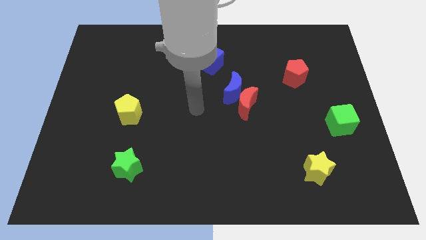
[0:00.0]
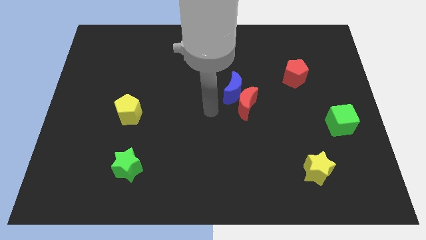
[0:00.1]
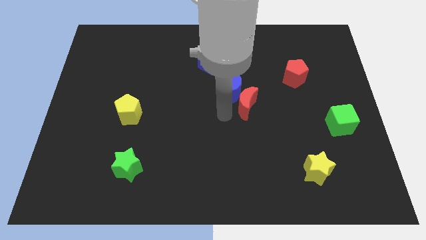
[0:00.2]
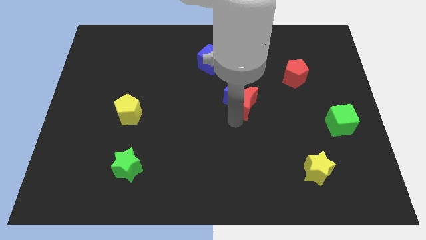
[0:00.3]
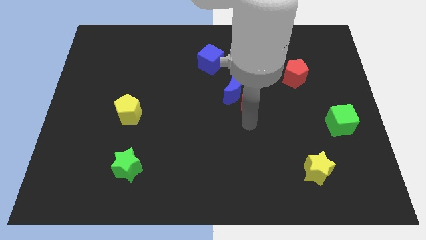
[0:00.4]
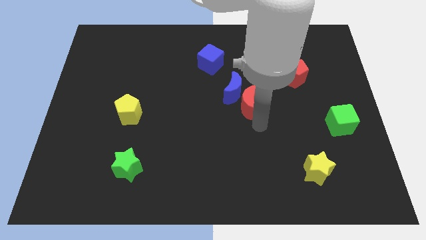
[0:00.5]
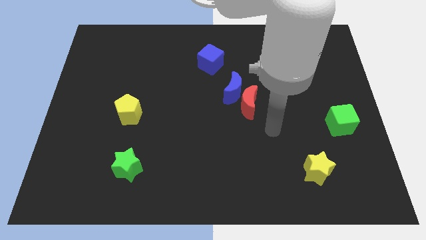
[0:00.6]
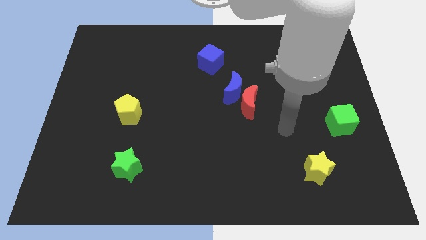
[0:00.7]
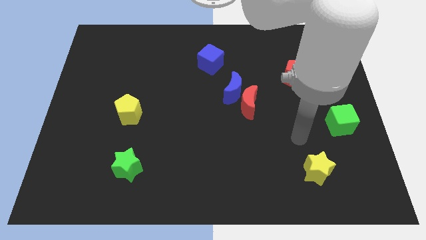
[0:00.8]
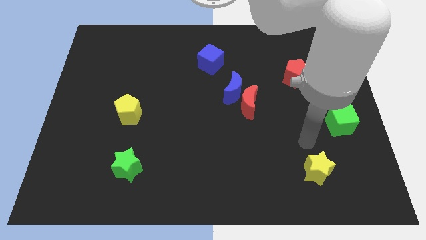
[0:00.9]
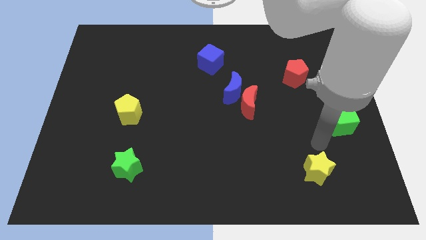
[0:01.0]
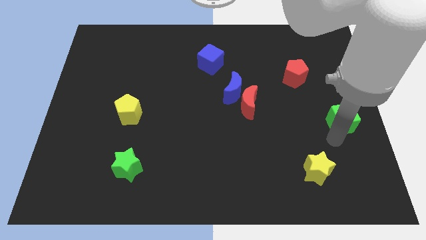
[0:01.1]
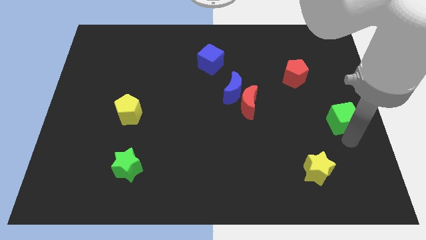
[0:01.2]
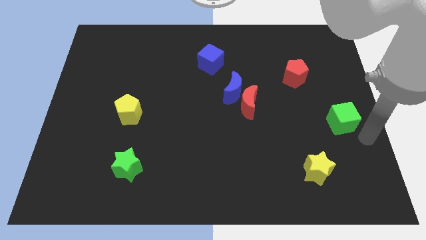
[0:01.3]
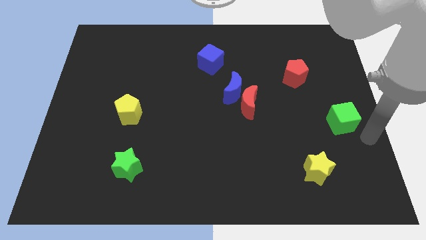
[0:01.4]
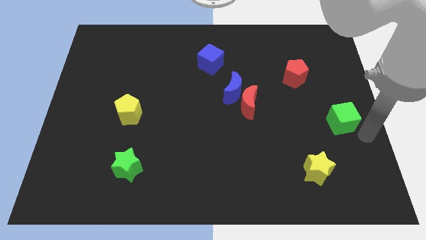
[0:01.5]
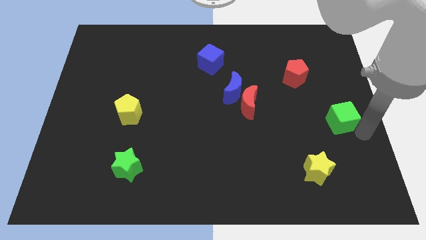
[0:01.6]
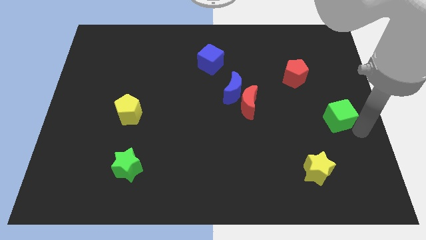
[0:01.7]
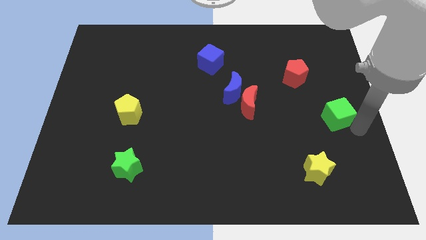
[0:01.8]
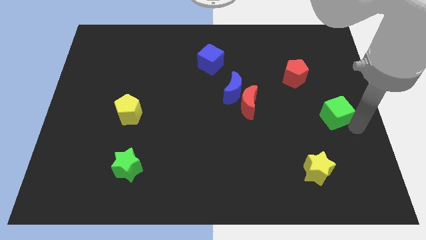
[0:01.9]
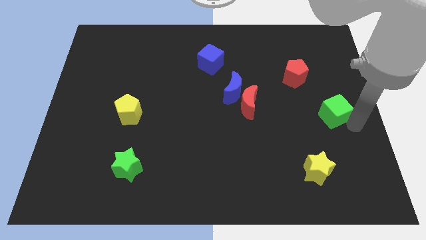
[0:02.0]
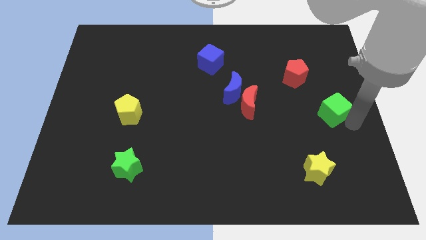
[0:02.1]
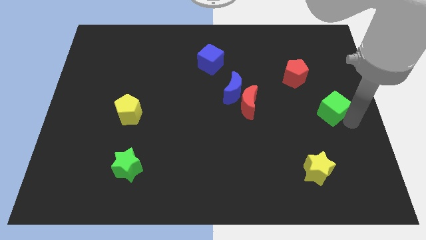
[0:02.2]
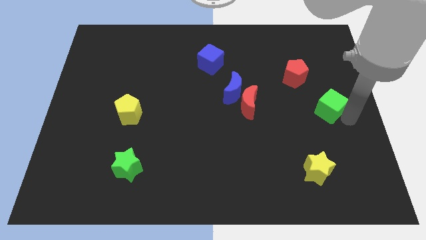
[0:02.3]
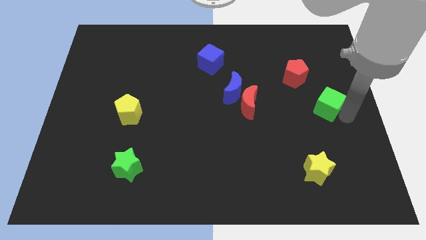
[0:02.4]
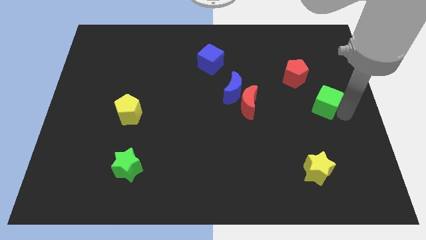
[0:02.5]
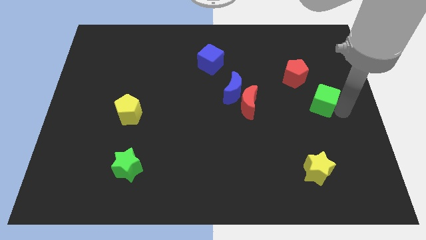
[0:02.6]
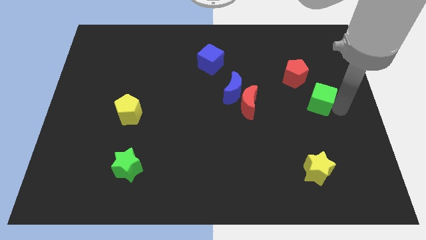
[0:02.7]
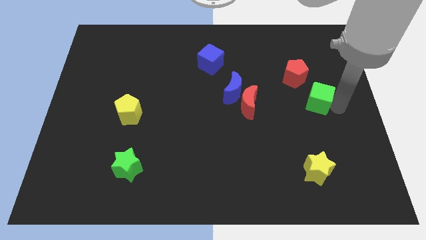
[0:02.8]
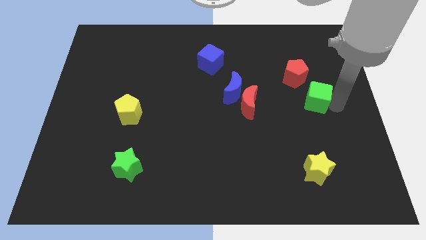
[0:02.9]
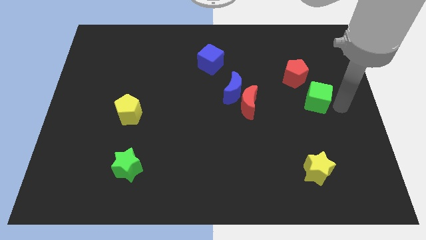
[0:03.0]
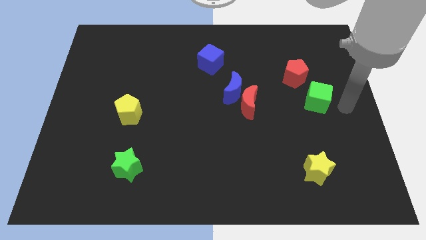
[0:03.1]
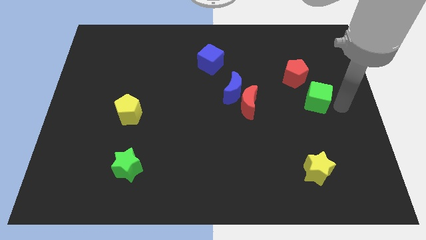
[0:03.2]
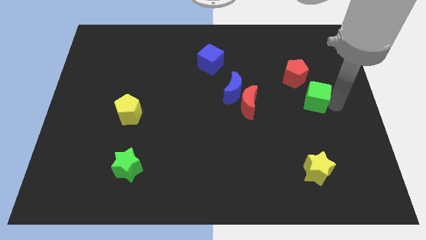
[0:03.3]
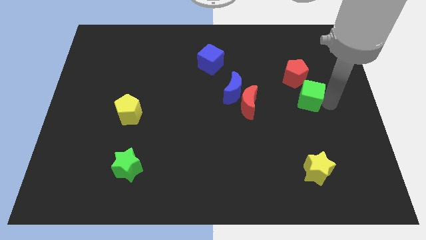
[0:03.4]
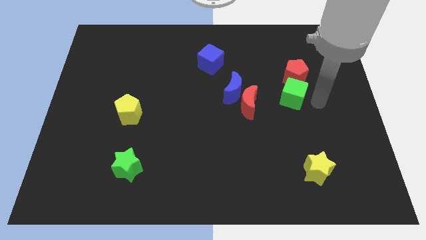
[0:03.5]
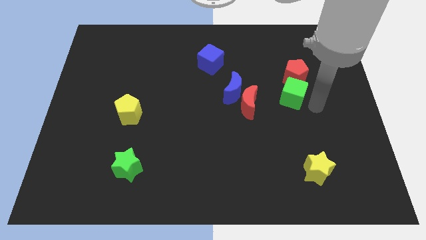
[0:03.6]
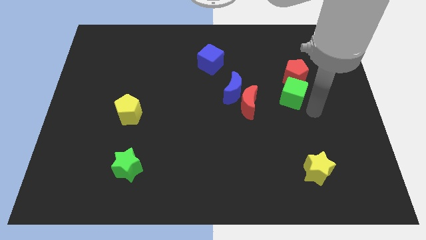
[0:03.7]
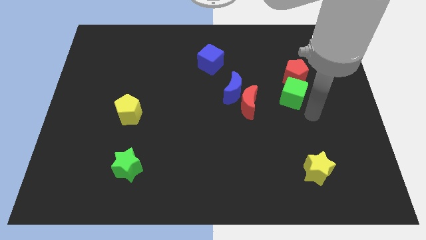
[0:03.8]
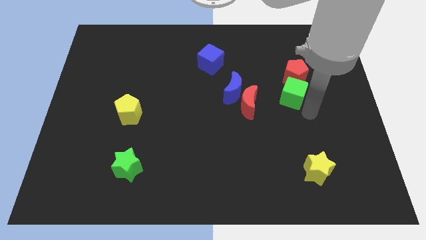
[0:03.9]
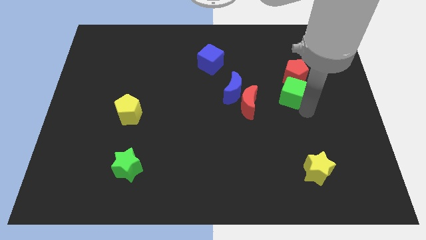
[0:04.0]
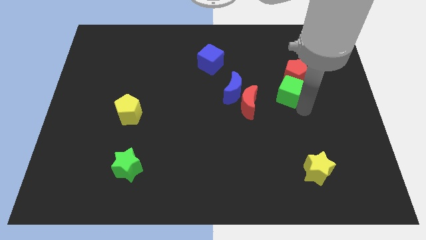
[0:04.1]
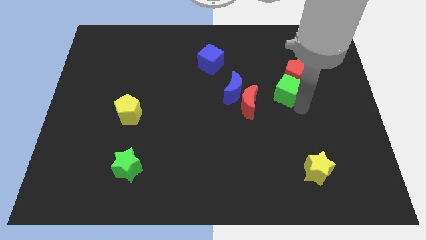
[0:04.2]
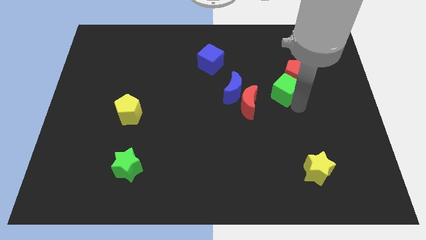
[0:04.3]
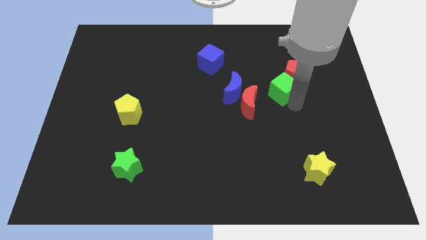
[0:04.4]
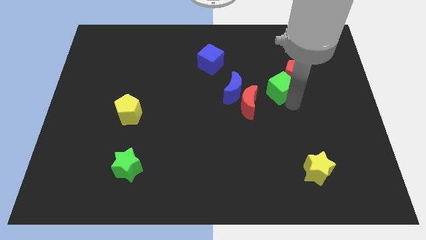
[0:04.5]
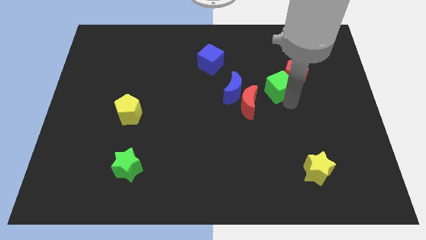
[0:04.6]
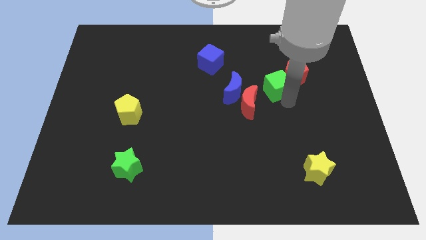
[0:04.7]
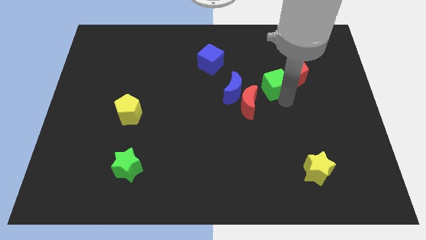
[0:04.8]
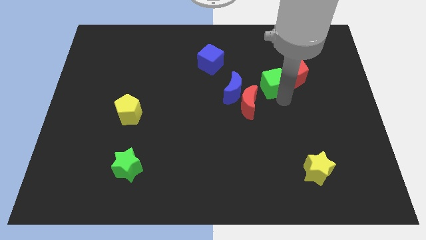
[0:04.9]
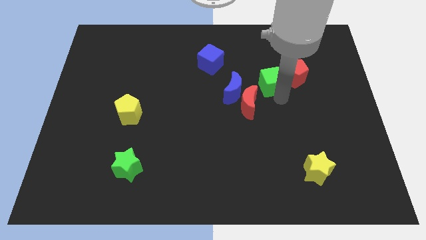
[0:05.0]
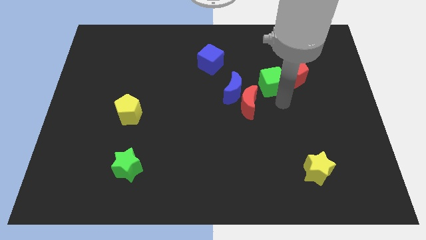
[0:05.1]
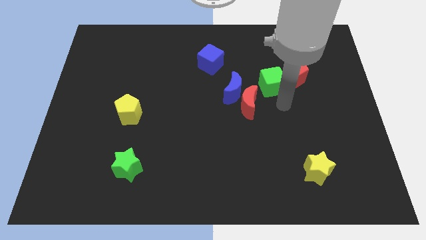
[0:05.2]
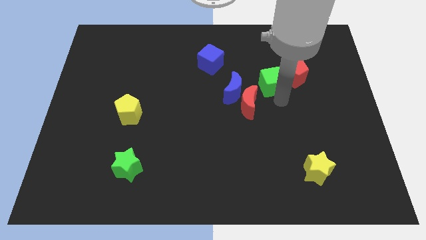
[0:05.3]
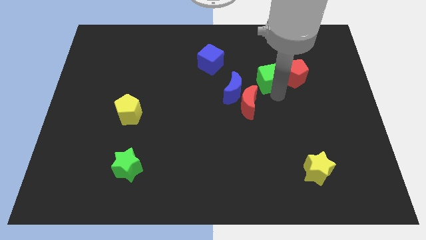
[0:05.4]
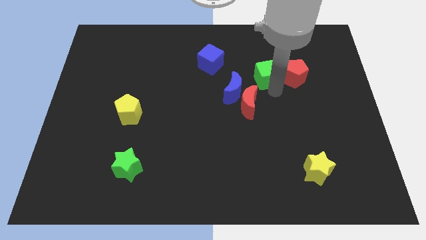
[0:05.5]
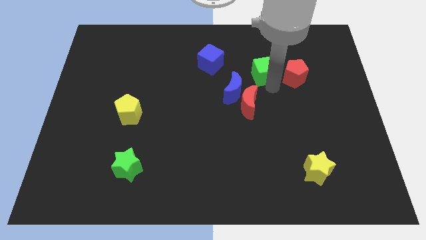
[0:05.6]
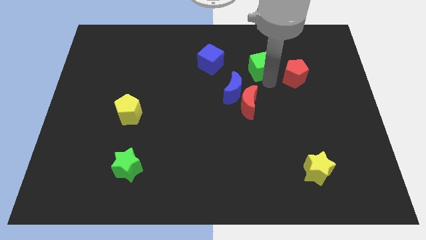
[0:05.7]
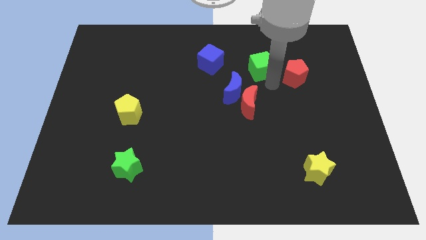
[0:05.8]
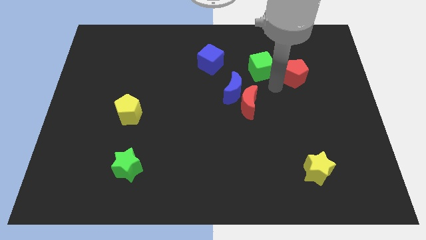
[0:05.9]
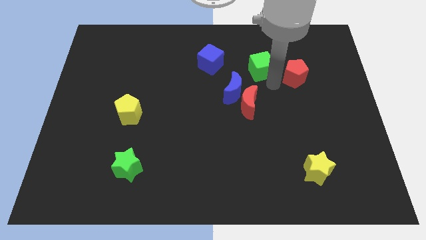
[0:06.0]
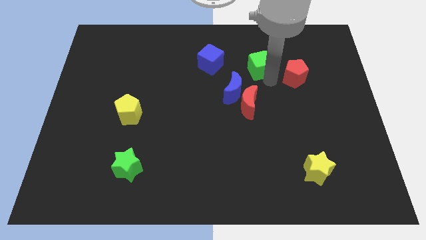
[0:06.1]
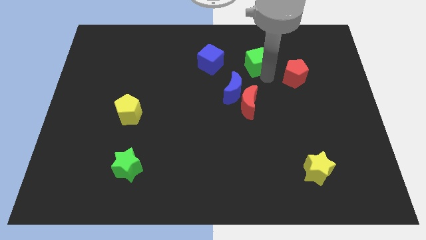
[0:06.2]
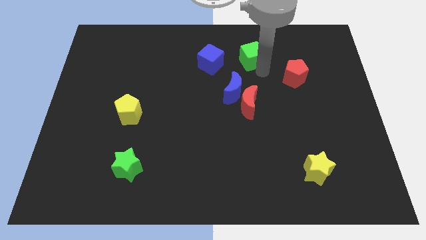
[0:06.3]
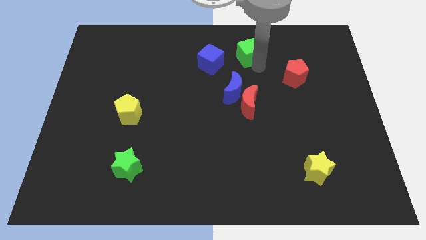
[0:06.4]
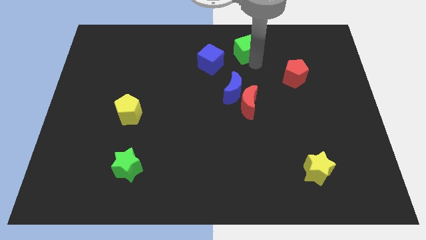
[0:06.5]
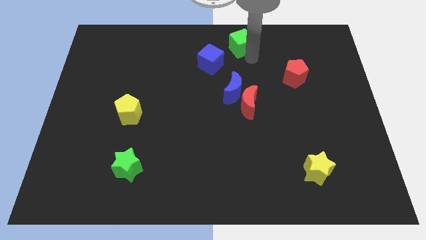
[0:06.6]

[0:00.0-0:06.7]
move the green cube to the top side

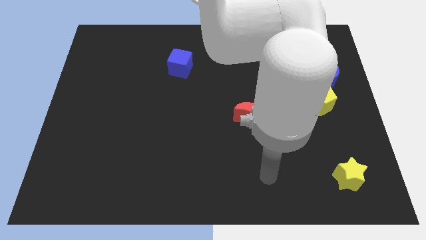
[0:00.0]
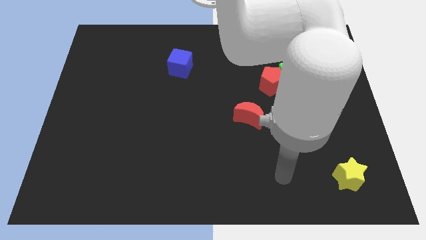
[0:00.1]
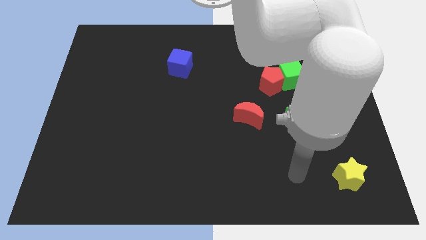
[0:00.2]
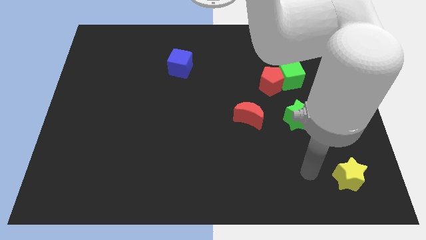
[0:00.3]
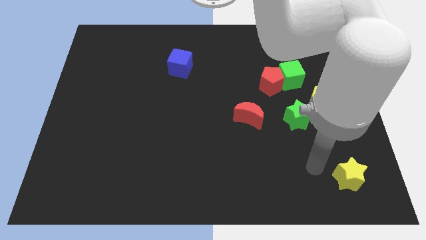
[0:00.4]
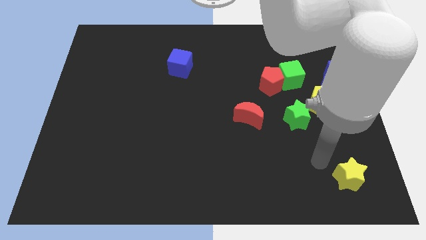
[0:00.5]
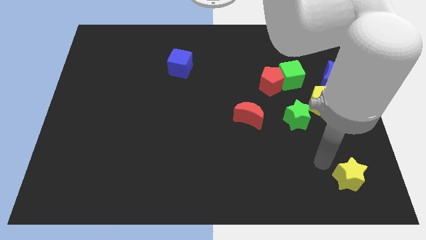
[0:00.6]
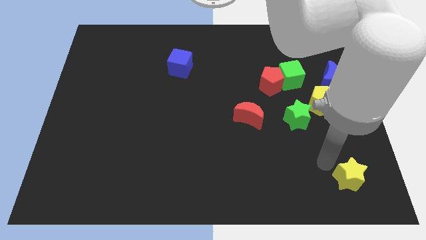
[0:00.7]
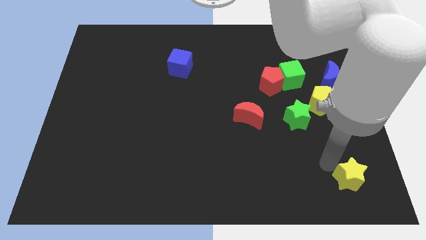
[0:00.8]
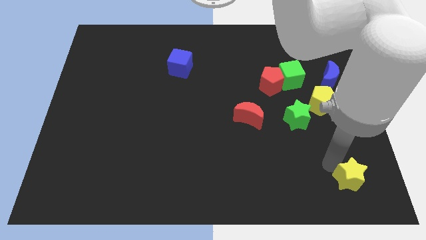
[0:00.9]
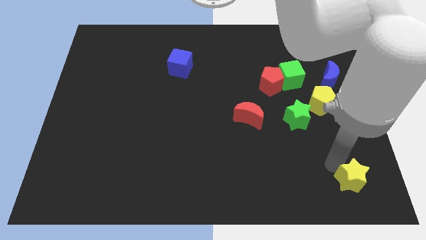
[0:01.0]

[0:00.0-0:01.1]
move the yellow star to the lower right corner
